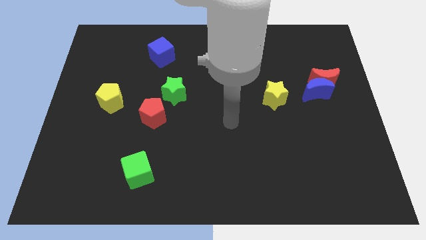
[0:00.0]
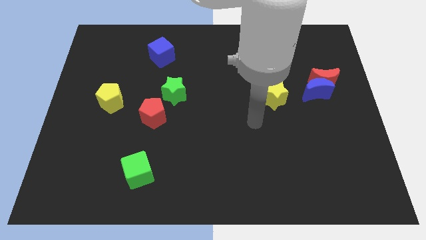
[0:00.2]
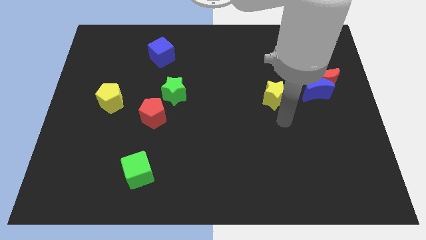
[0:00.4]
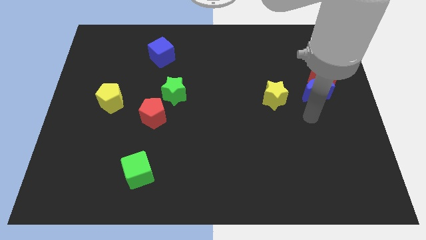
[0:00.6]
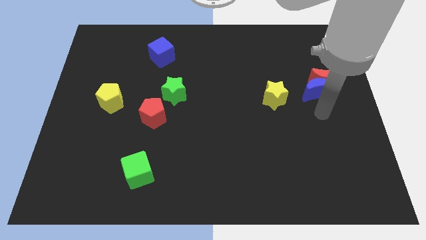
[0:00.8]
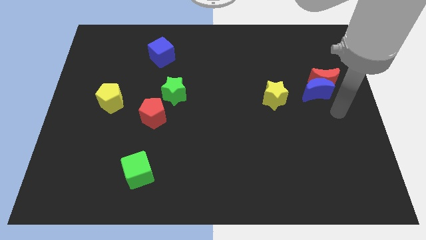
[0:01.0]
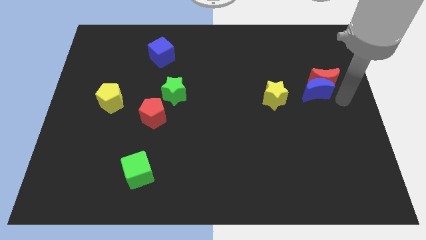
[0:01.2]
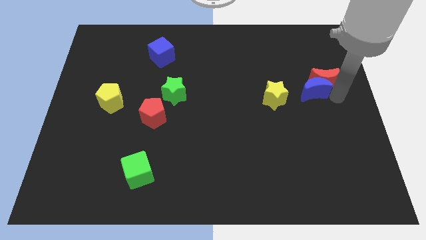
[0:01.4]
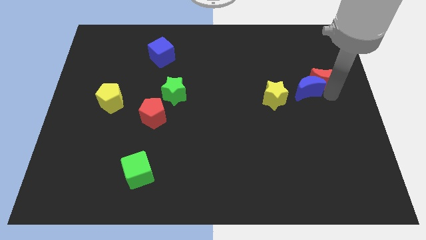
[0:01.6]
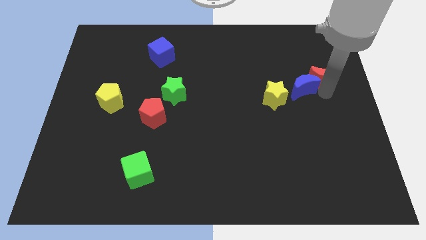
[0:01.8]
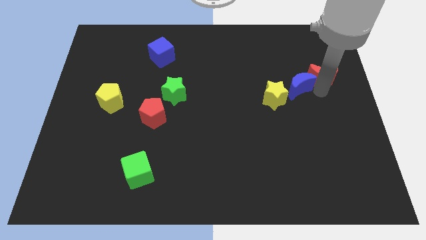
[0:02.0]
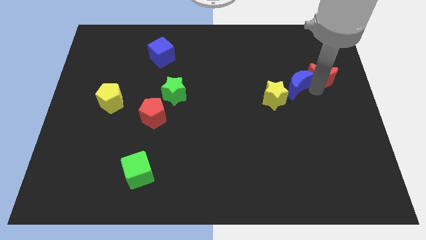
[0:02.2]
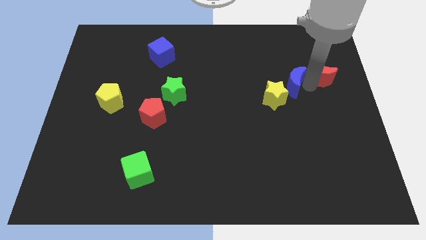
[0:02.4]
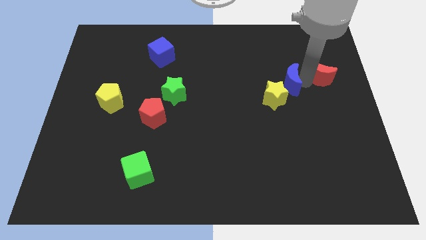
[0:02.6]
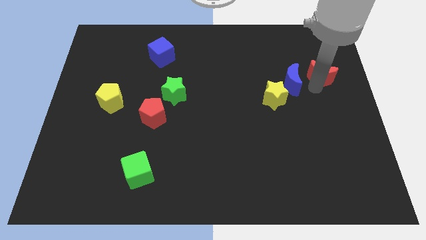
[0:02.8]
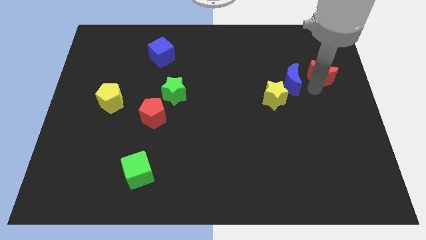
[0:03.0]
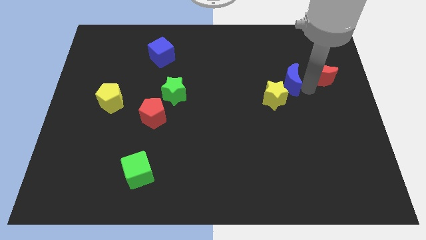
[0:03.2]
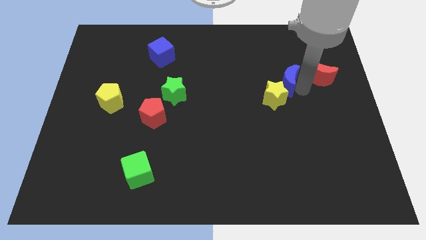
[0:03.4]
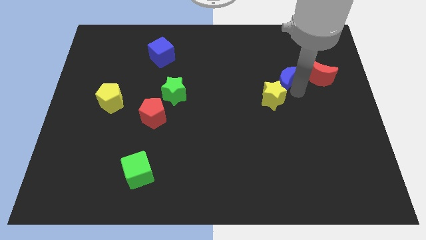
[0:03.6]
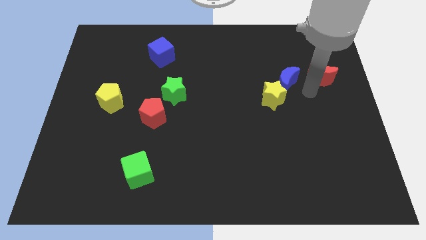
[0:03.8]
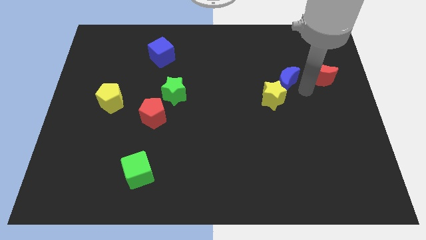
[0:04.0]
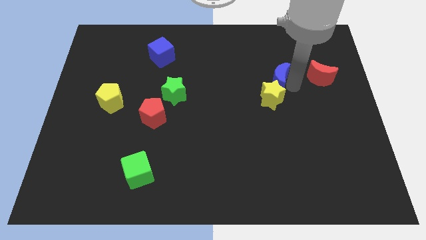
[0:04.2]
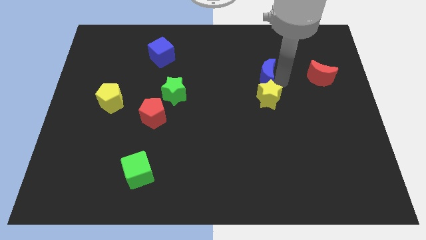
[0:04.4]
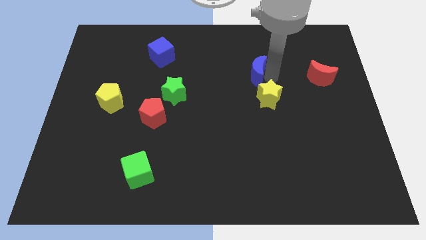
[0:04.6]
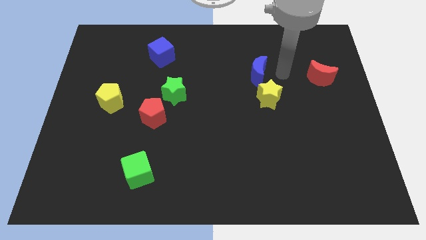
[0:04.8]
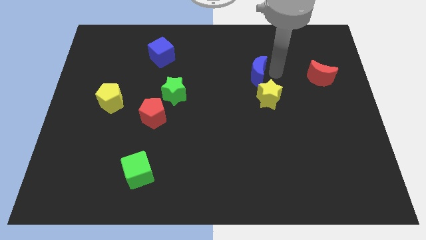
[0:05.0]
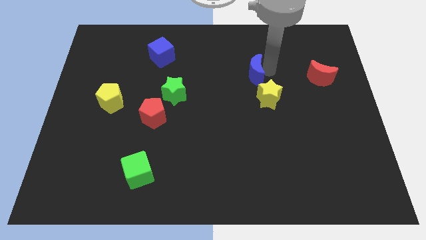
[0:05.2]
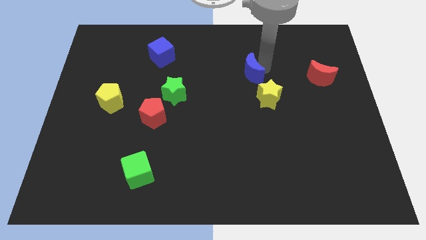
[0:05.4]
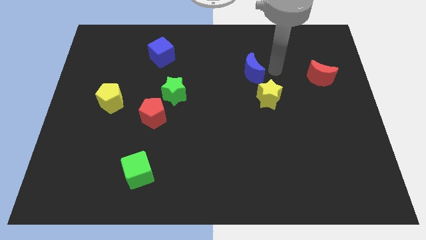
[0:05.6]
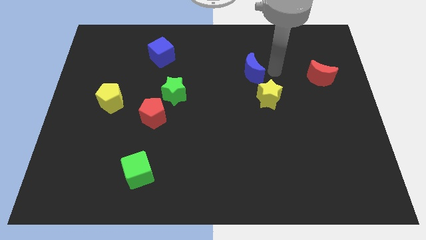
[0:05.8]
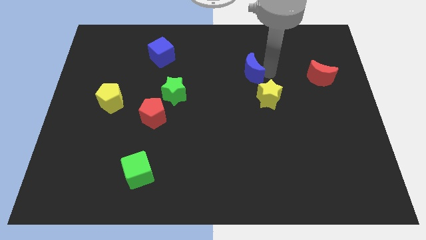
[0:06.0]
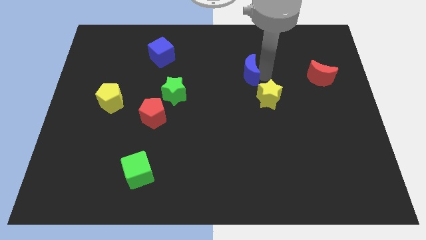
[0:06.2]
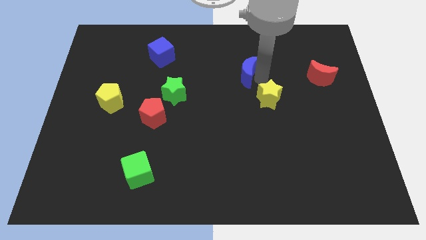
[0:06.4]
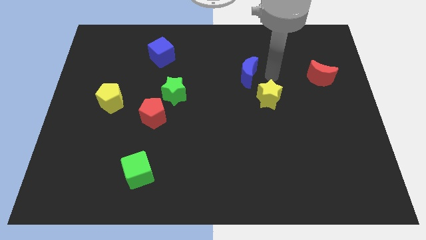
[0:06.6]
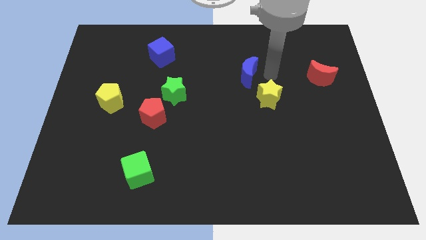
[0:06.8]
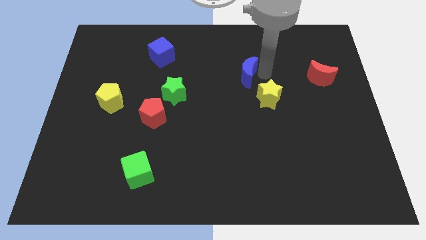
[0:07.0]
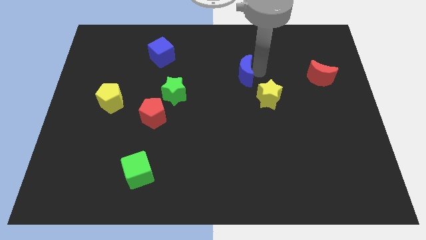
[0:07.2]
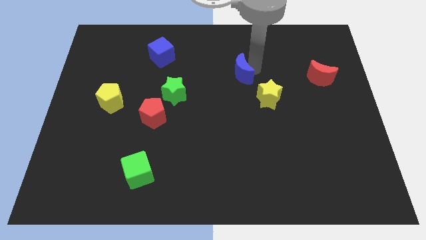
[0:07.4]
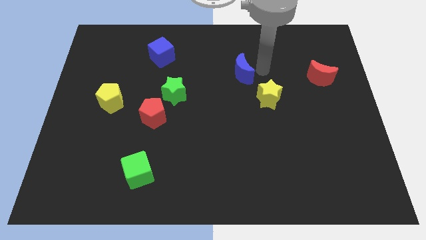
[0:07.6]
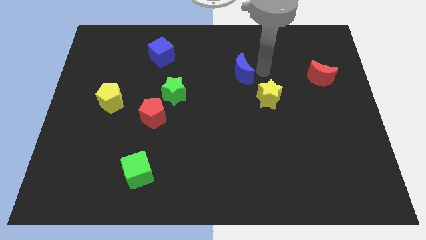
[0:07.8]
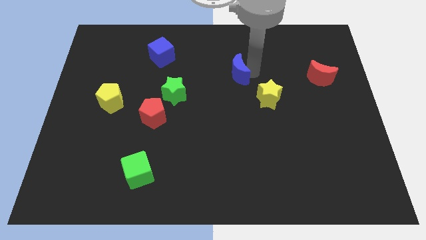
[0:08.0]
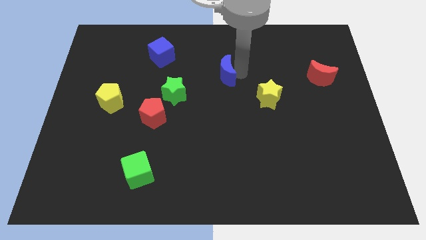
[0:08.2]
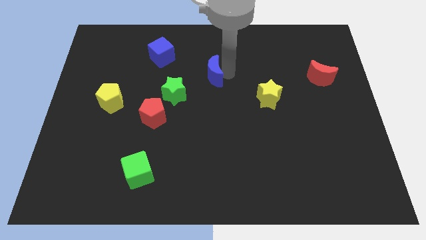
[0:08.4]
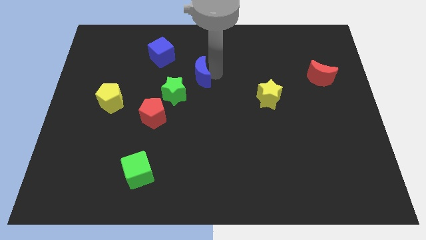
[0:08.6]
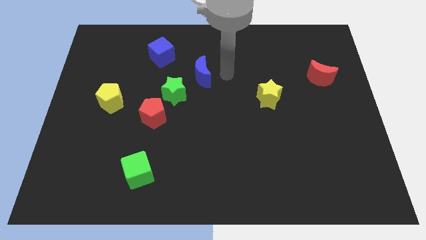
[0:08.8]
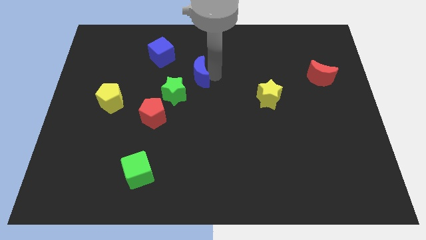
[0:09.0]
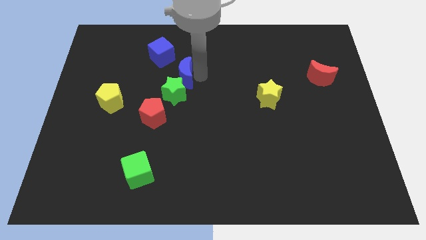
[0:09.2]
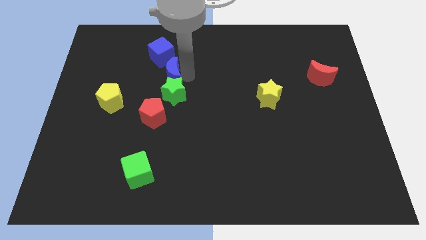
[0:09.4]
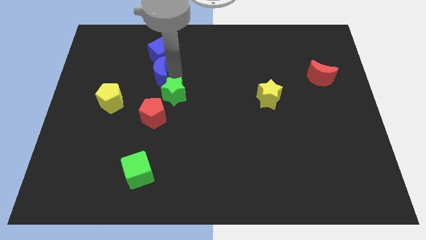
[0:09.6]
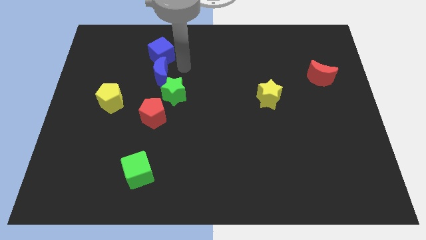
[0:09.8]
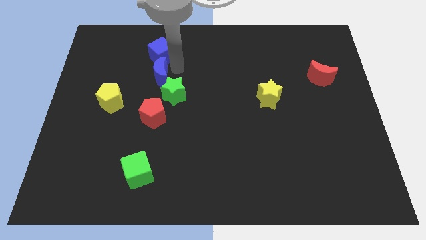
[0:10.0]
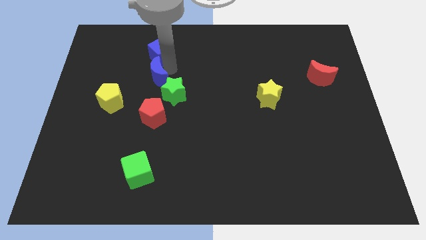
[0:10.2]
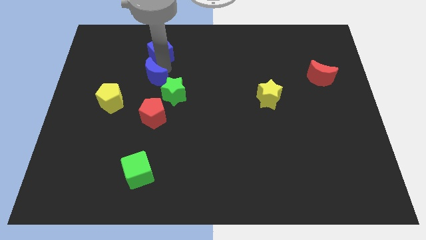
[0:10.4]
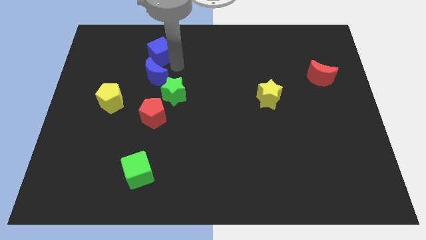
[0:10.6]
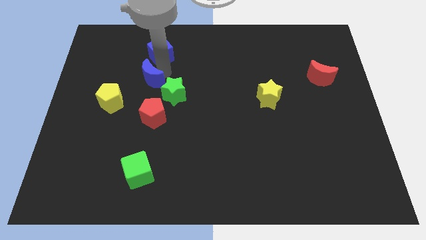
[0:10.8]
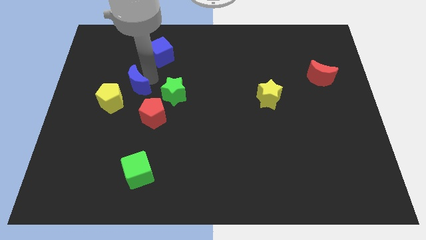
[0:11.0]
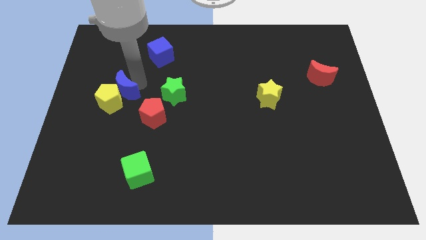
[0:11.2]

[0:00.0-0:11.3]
put the blue moon towards the yellow pentagon

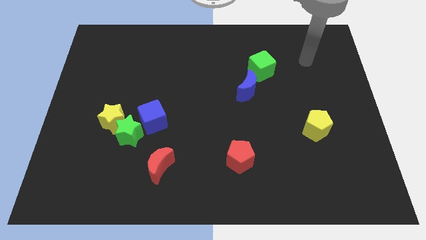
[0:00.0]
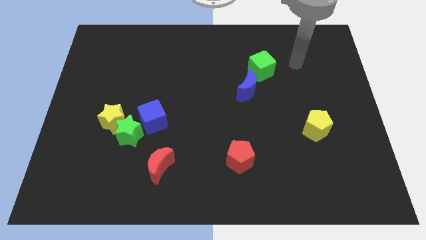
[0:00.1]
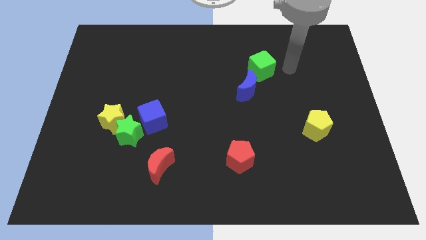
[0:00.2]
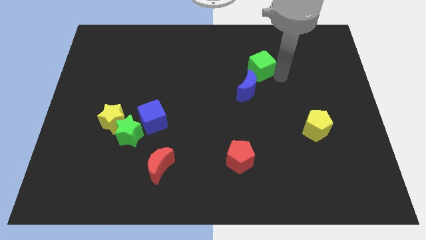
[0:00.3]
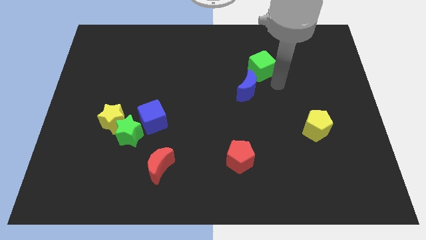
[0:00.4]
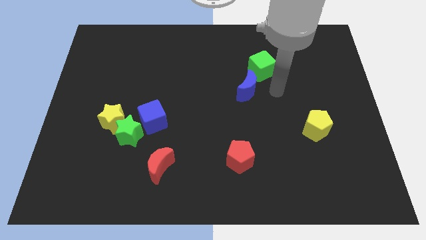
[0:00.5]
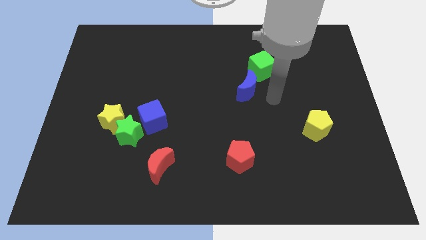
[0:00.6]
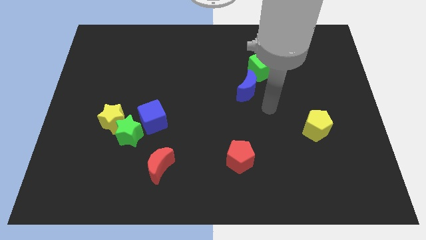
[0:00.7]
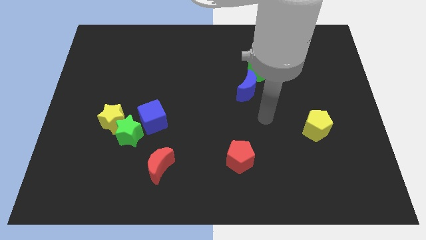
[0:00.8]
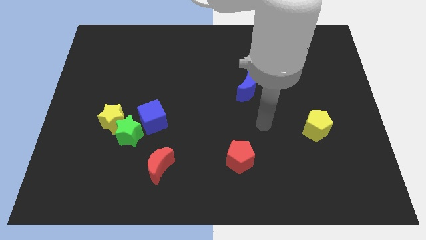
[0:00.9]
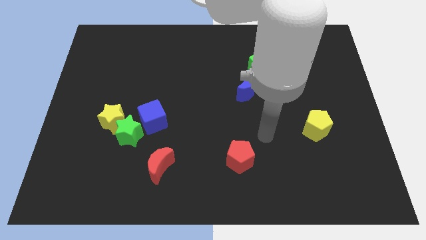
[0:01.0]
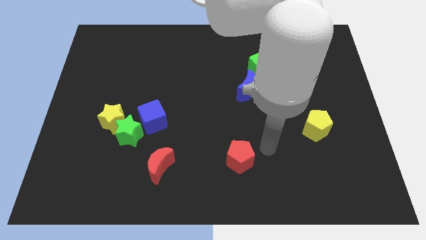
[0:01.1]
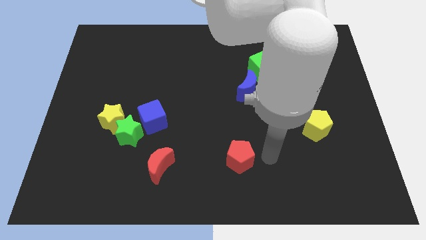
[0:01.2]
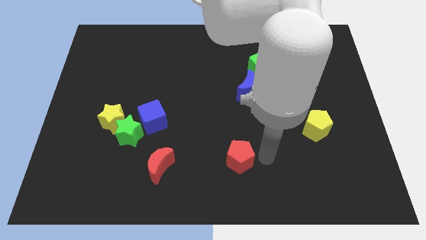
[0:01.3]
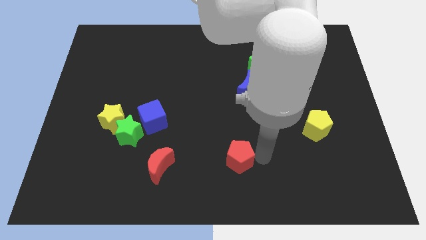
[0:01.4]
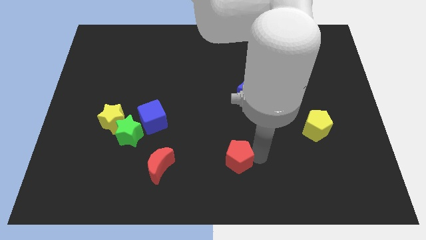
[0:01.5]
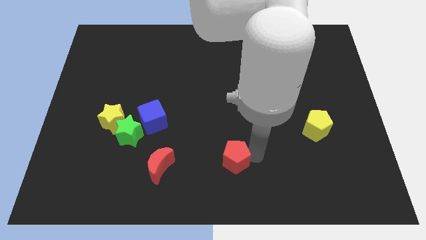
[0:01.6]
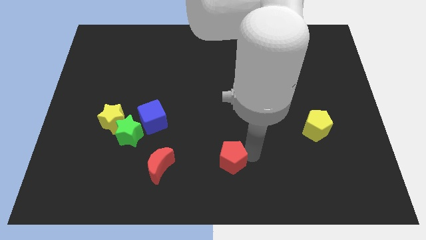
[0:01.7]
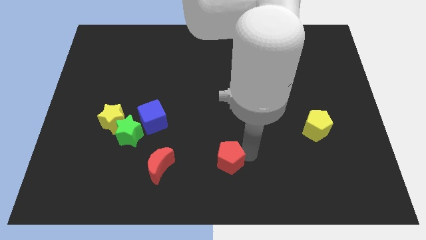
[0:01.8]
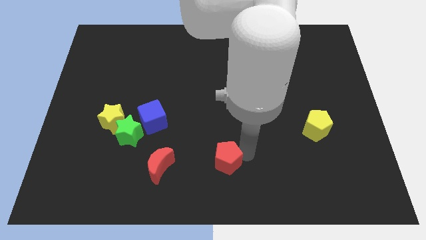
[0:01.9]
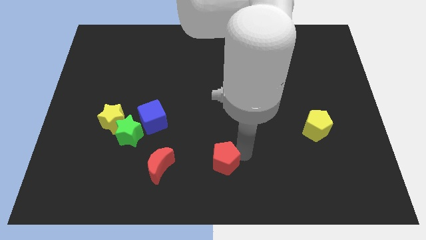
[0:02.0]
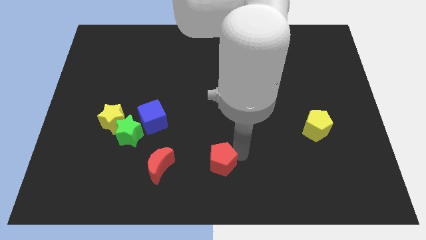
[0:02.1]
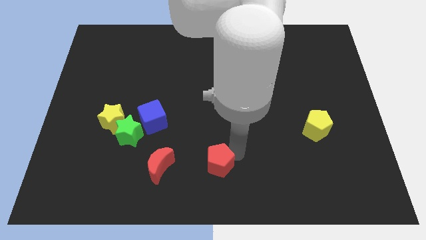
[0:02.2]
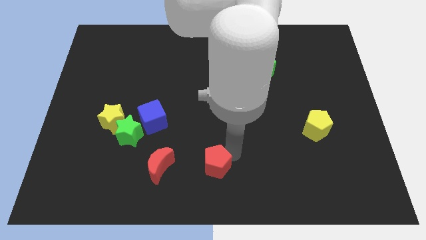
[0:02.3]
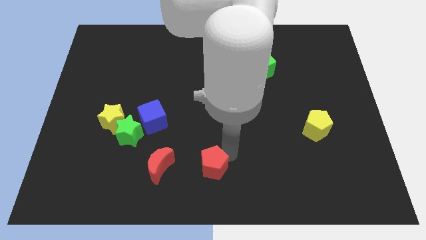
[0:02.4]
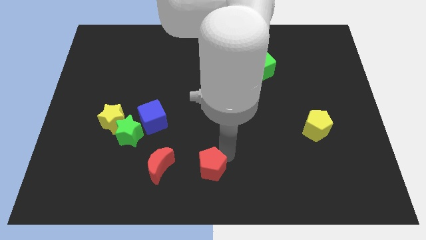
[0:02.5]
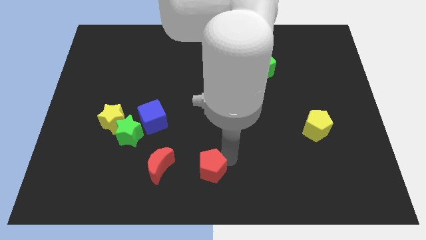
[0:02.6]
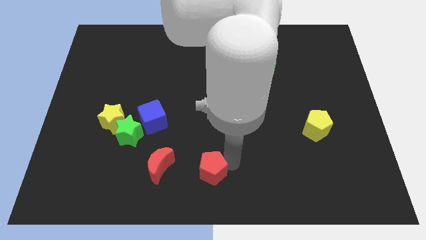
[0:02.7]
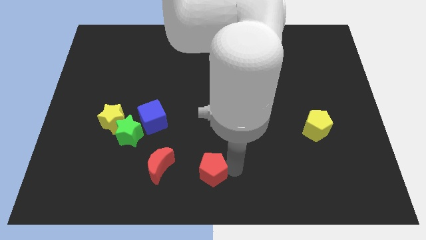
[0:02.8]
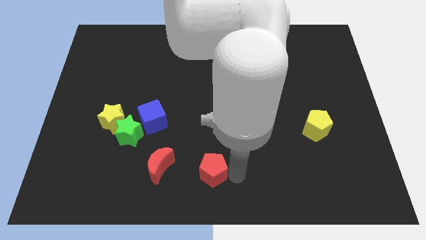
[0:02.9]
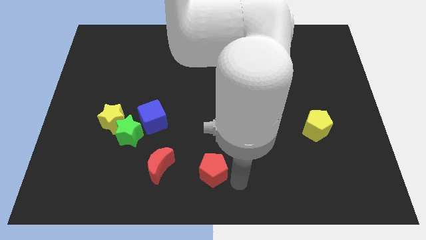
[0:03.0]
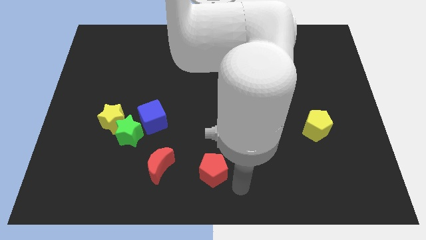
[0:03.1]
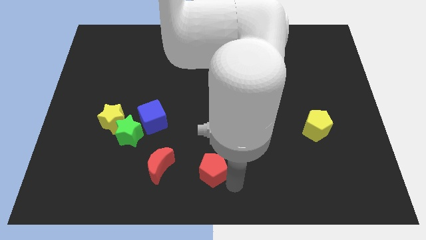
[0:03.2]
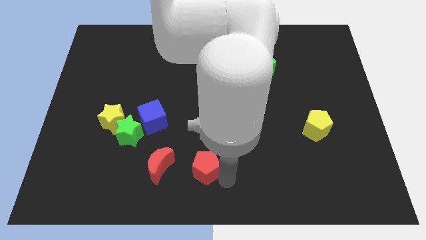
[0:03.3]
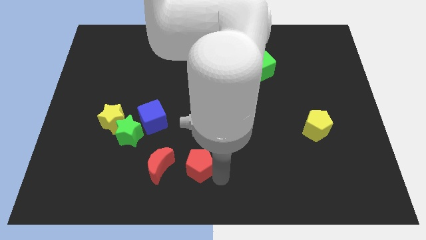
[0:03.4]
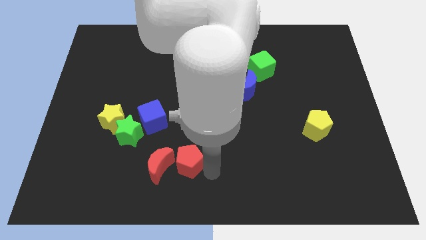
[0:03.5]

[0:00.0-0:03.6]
push the red pentagon to the red moon
